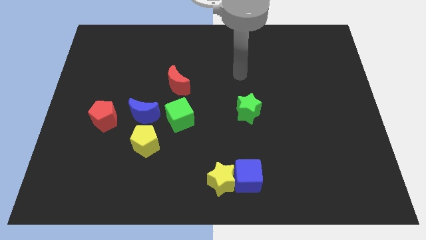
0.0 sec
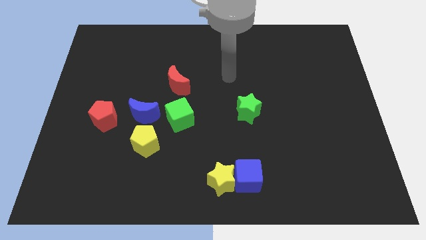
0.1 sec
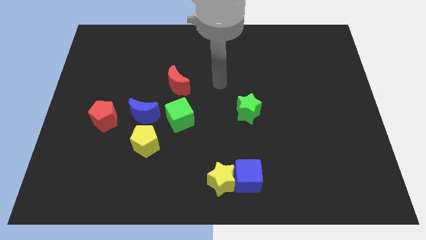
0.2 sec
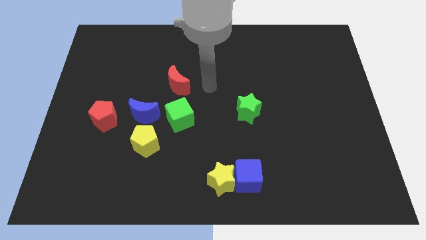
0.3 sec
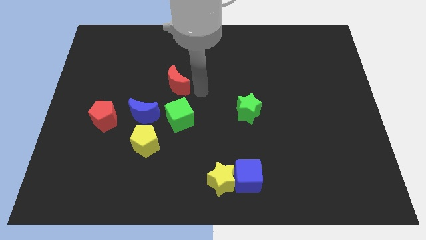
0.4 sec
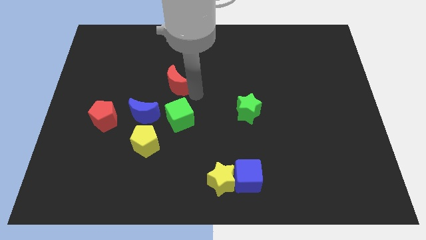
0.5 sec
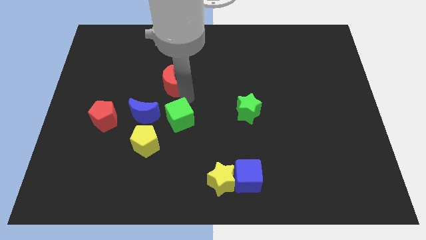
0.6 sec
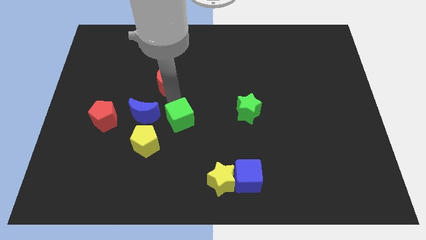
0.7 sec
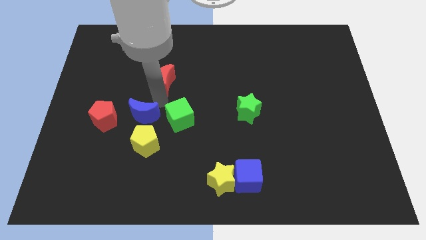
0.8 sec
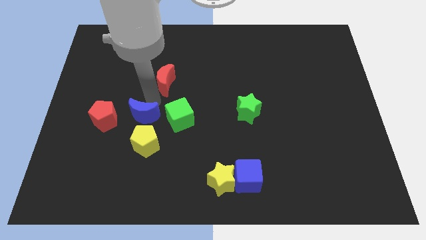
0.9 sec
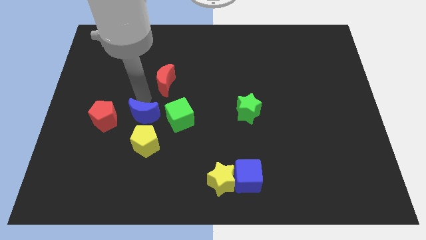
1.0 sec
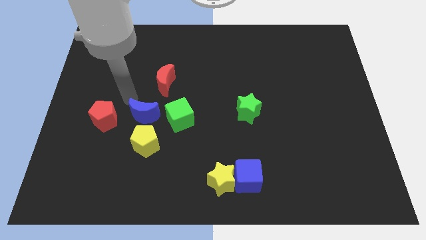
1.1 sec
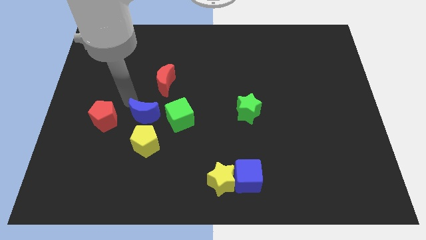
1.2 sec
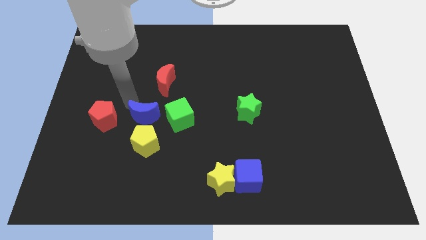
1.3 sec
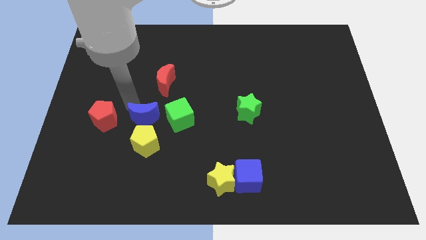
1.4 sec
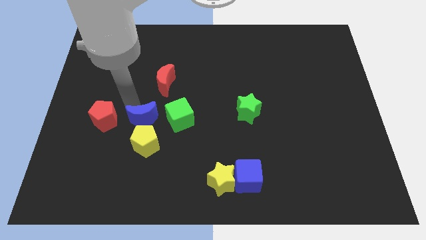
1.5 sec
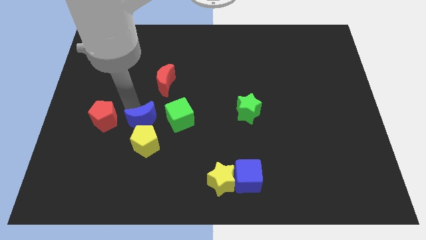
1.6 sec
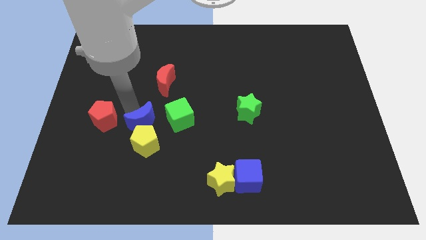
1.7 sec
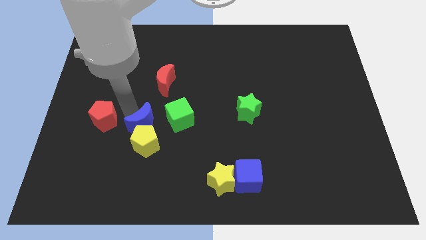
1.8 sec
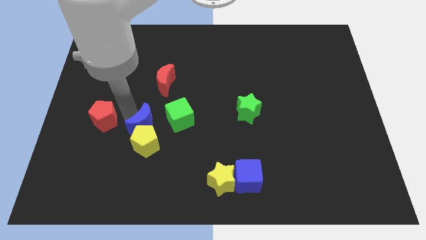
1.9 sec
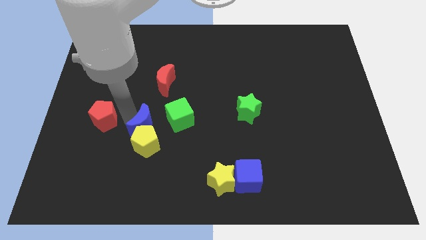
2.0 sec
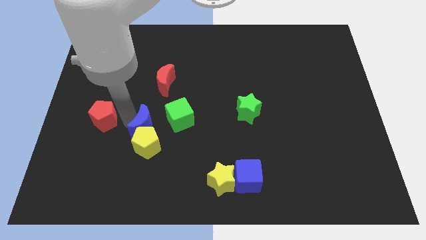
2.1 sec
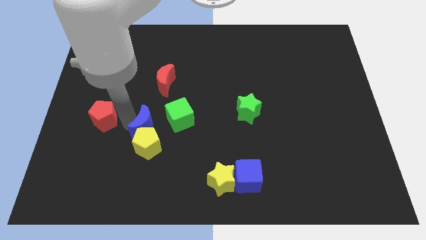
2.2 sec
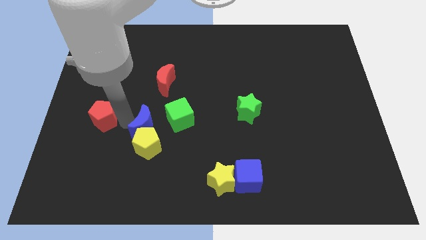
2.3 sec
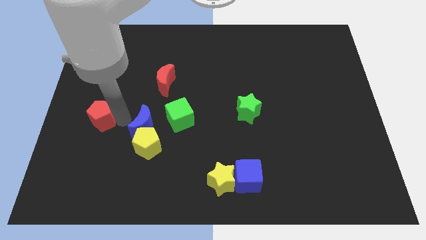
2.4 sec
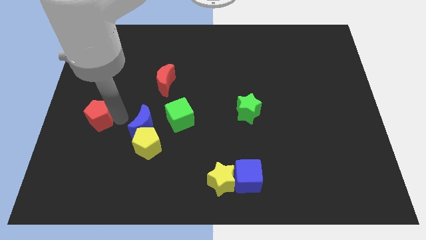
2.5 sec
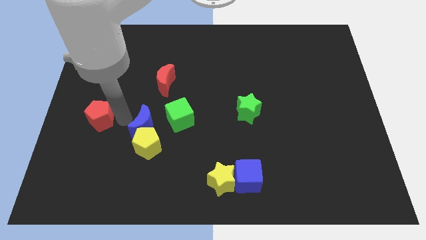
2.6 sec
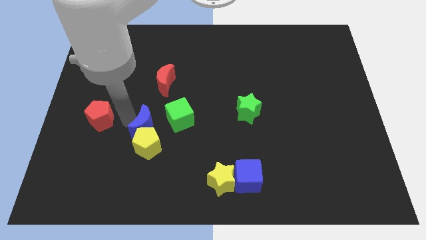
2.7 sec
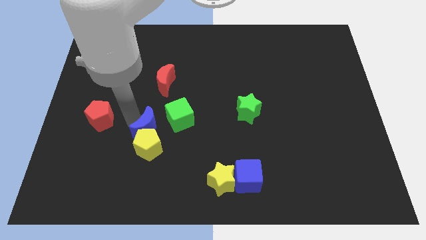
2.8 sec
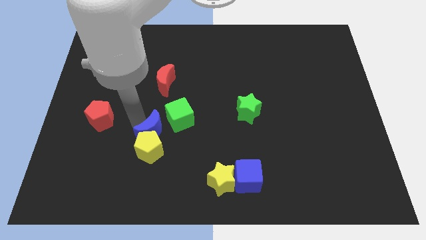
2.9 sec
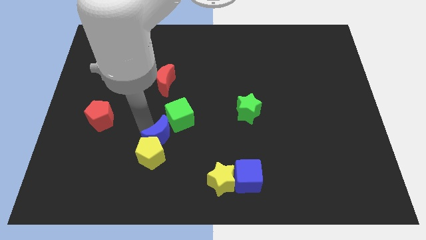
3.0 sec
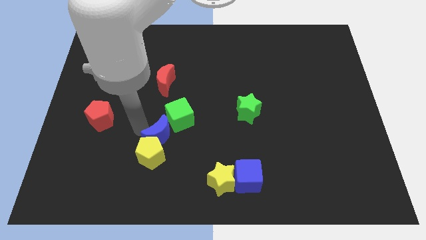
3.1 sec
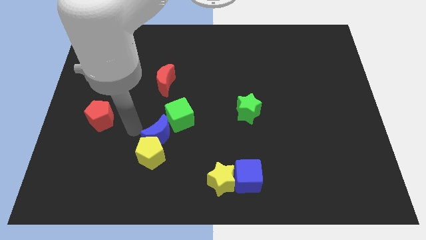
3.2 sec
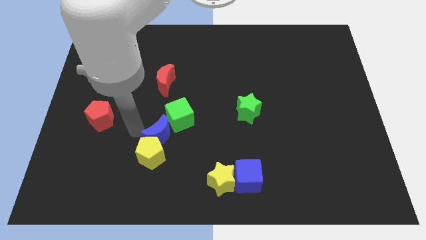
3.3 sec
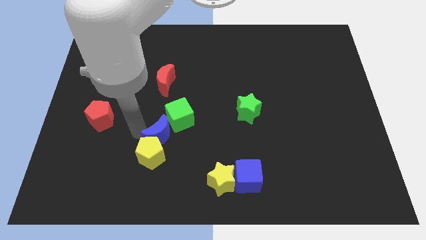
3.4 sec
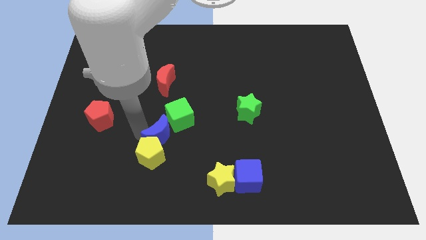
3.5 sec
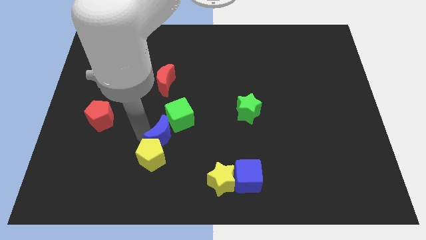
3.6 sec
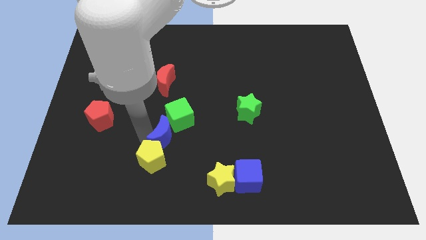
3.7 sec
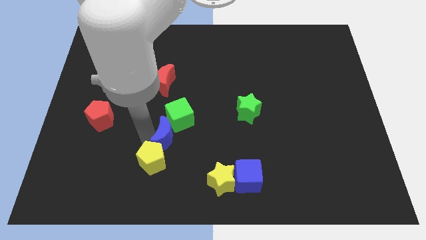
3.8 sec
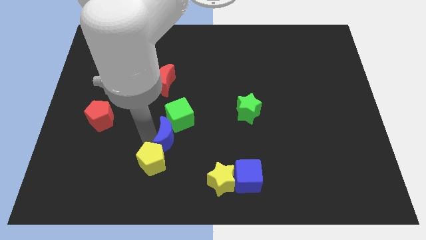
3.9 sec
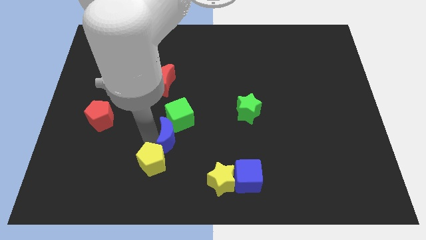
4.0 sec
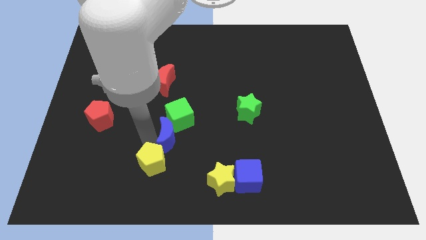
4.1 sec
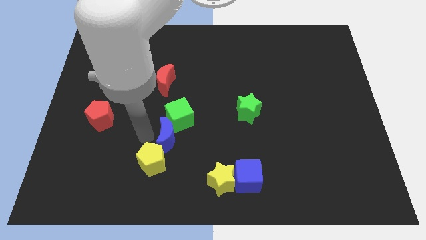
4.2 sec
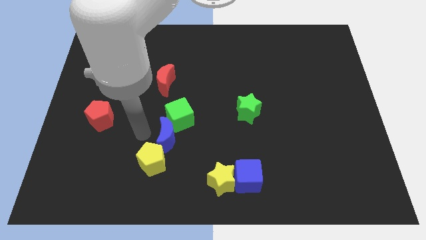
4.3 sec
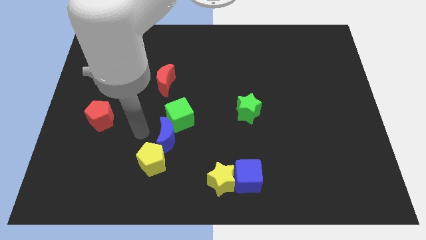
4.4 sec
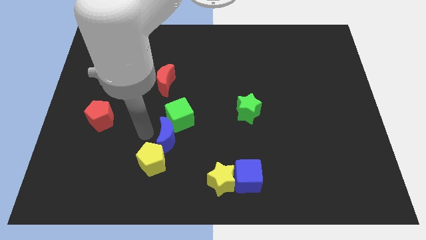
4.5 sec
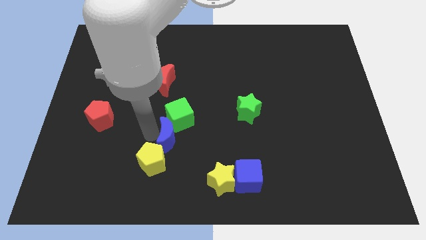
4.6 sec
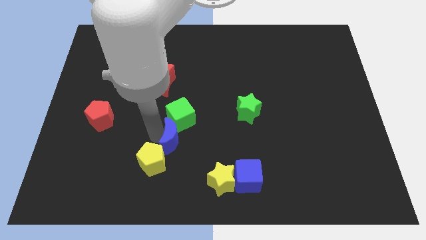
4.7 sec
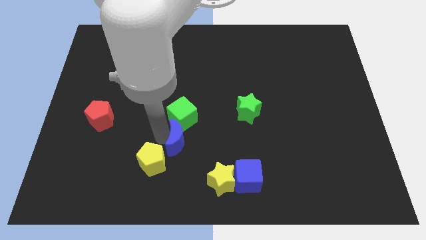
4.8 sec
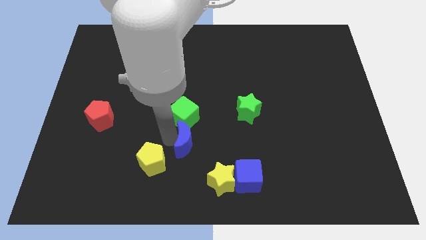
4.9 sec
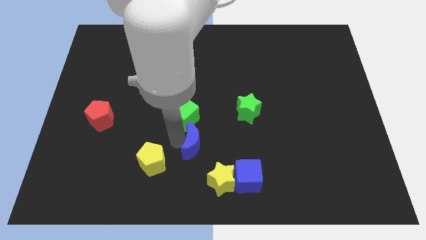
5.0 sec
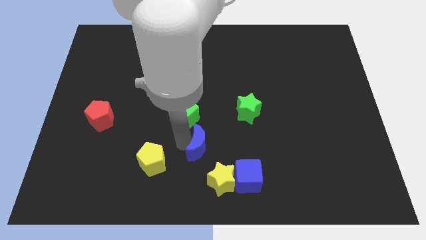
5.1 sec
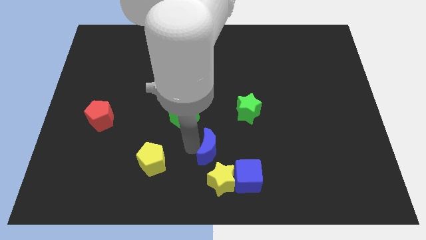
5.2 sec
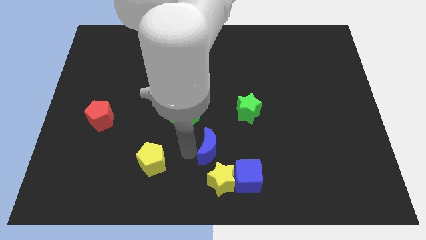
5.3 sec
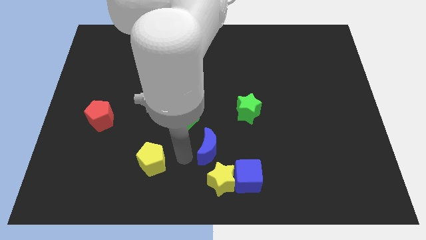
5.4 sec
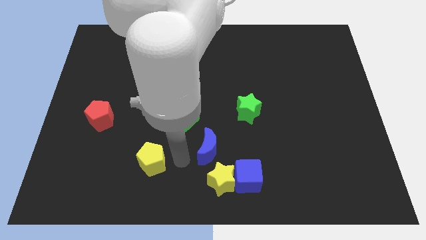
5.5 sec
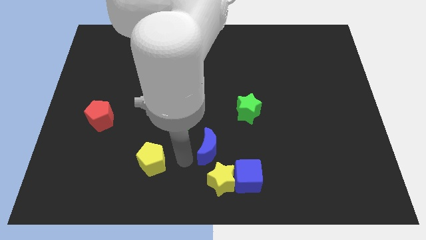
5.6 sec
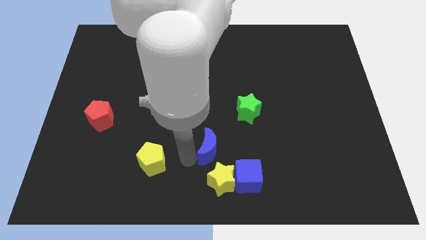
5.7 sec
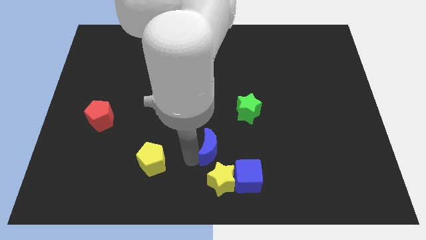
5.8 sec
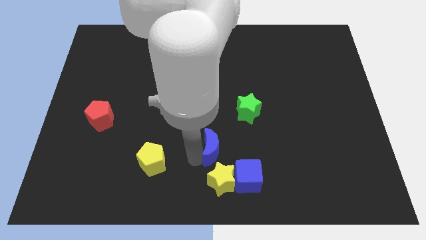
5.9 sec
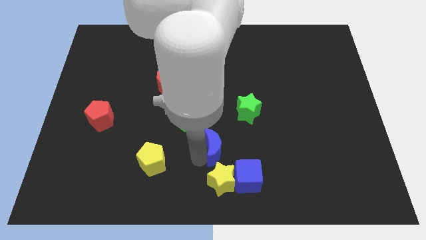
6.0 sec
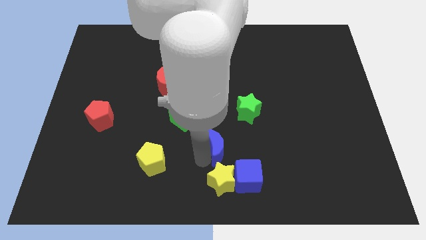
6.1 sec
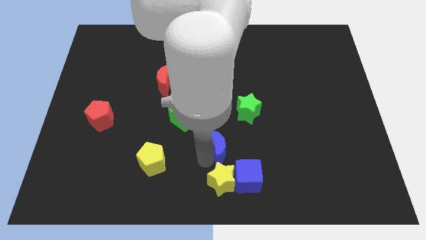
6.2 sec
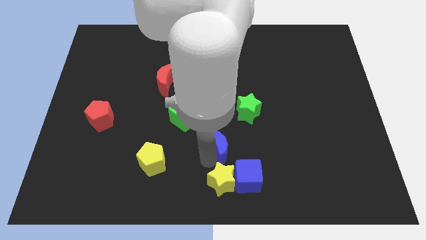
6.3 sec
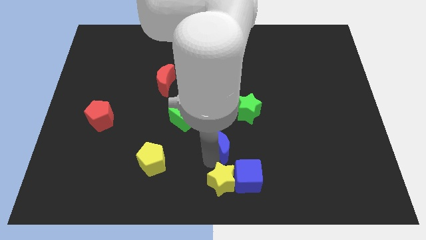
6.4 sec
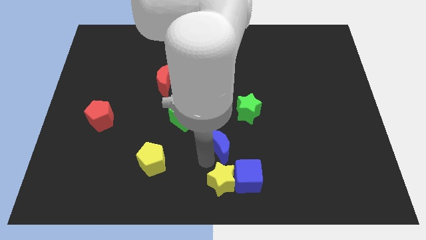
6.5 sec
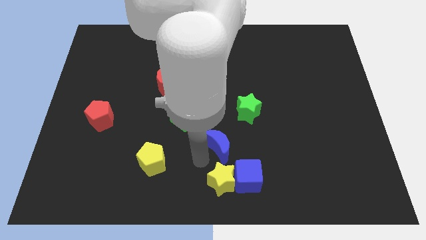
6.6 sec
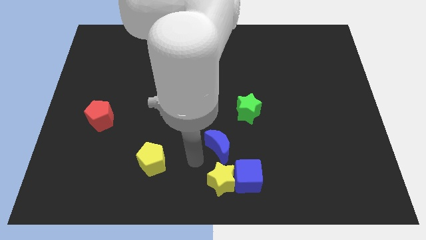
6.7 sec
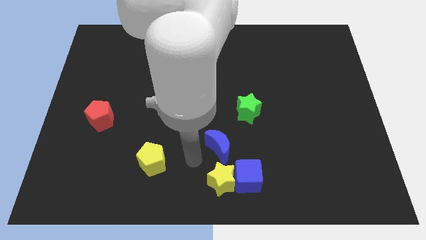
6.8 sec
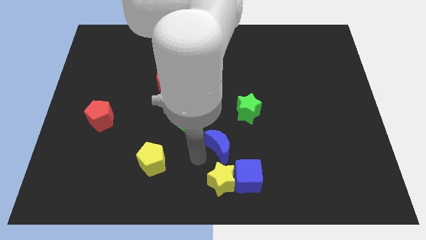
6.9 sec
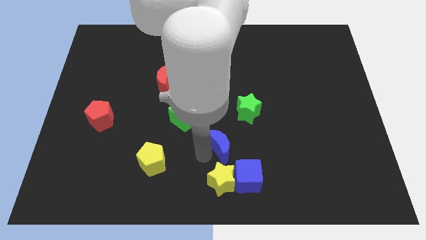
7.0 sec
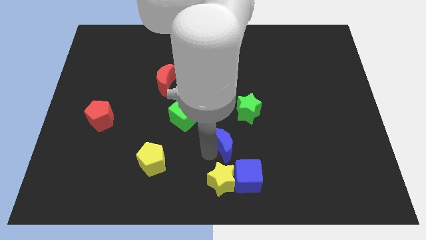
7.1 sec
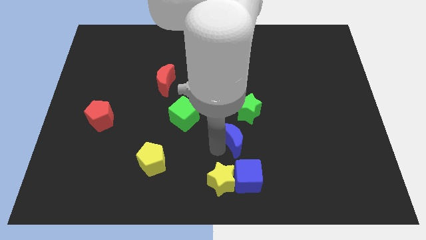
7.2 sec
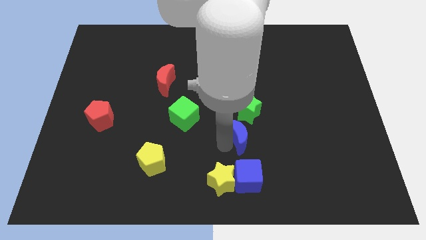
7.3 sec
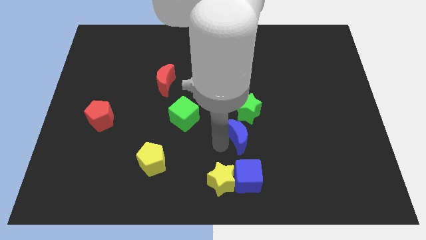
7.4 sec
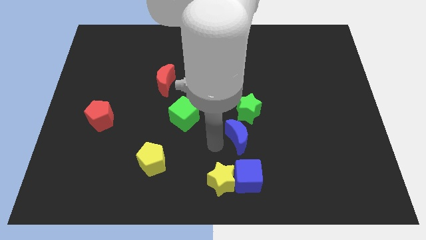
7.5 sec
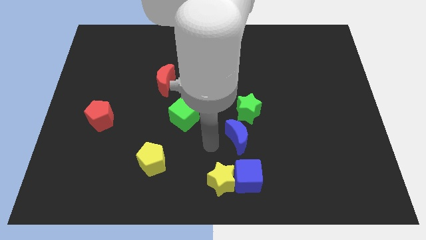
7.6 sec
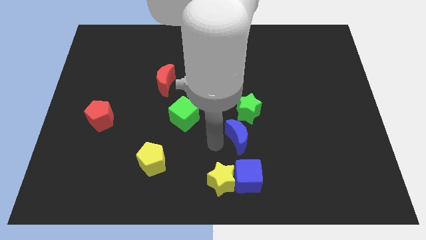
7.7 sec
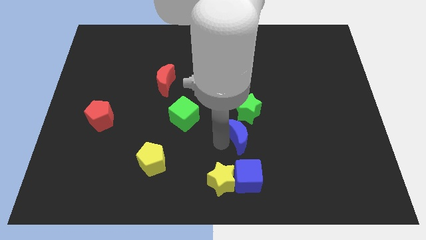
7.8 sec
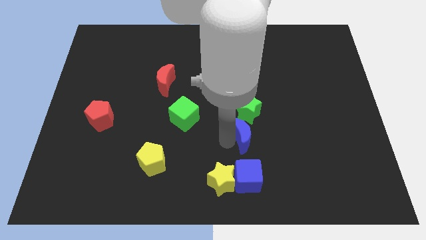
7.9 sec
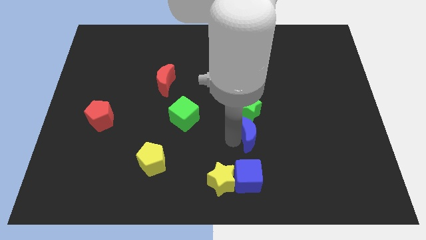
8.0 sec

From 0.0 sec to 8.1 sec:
slide the blue moon to the bottom right side of the green star
